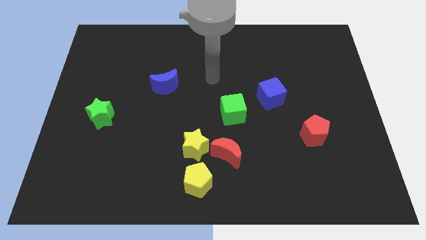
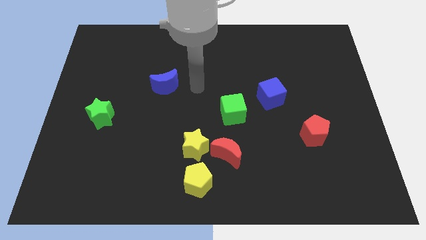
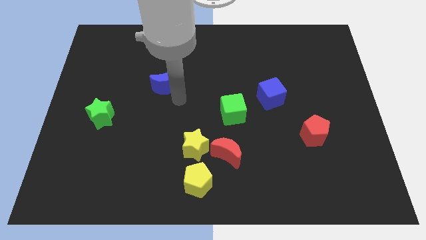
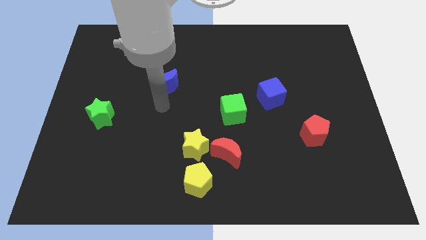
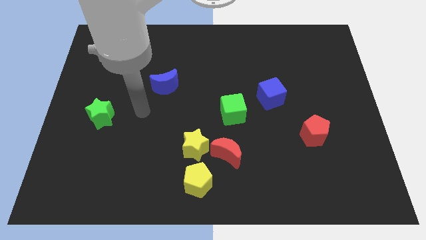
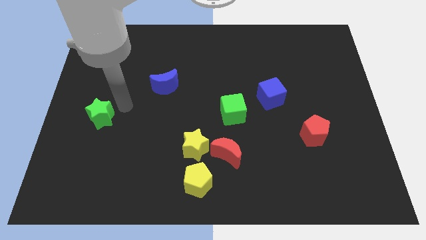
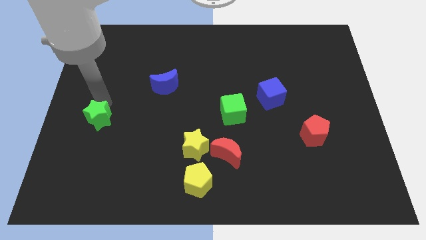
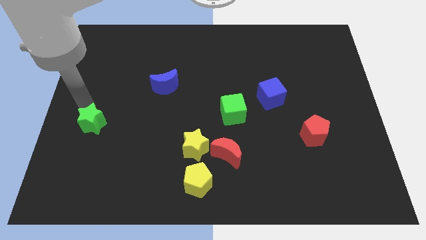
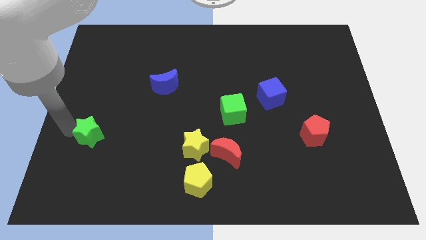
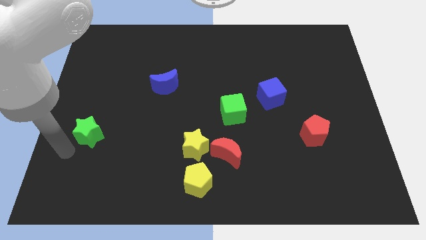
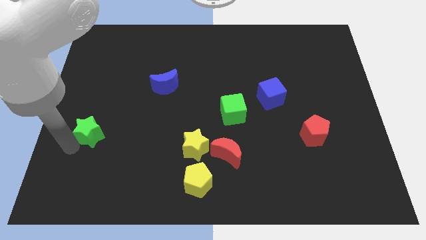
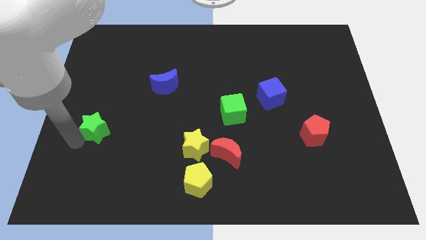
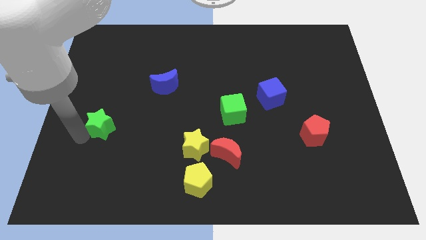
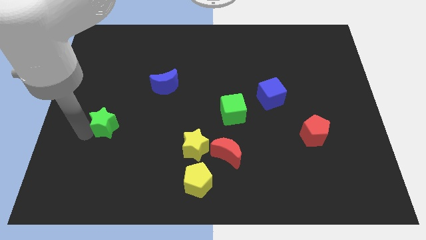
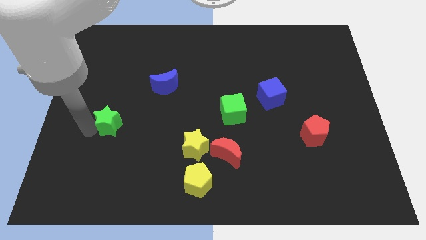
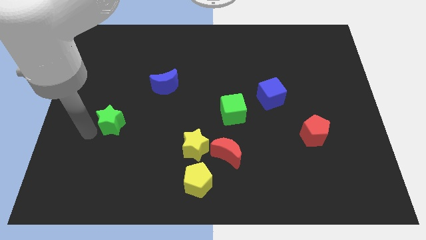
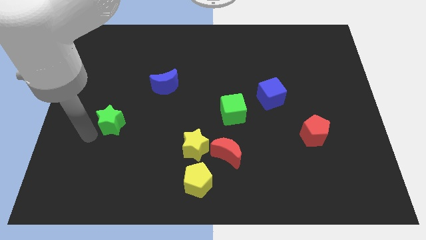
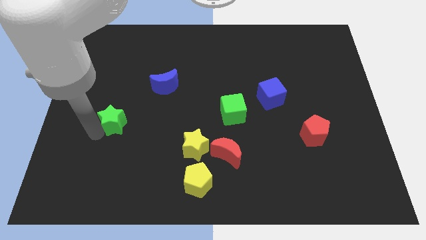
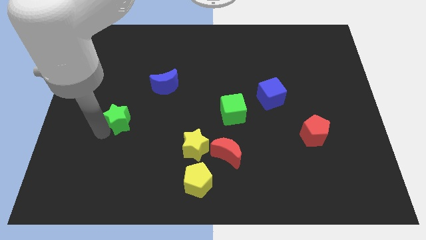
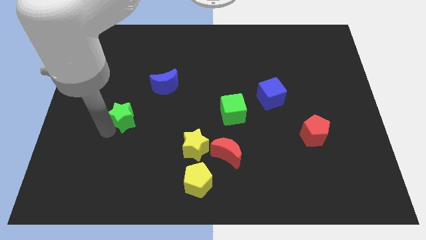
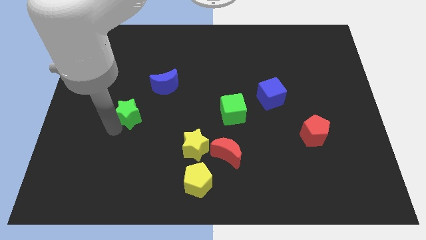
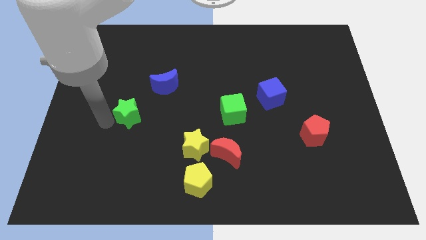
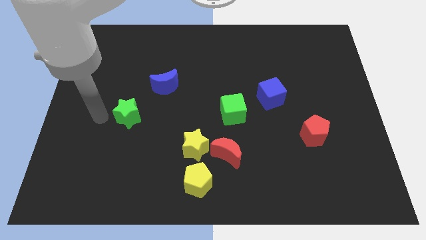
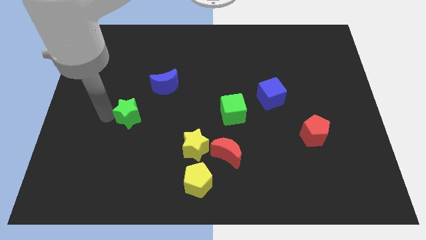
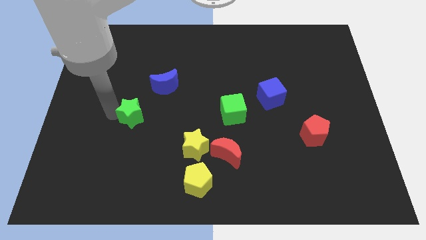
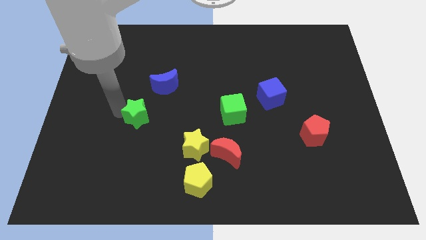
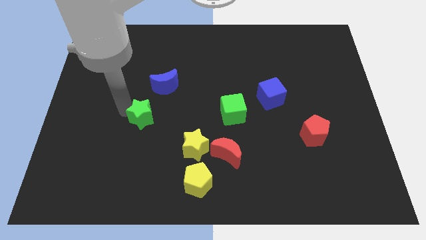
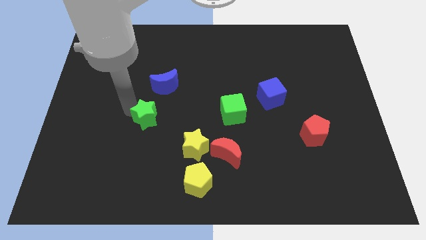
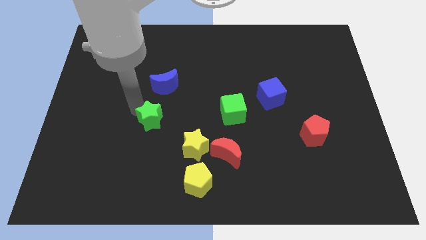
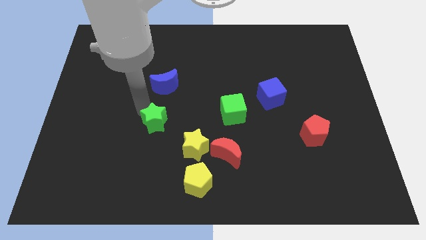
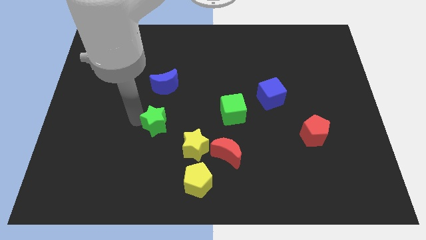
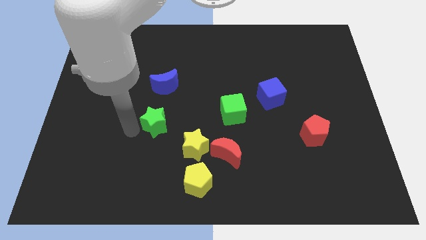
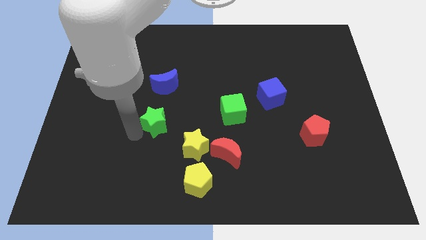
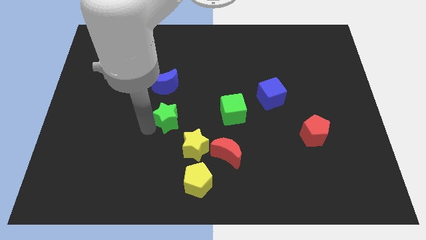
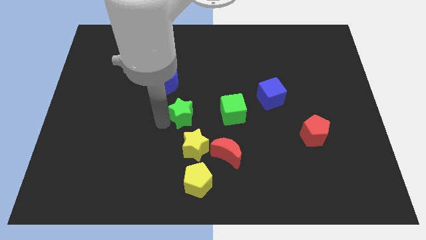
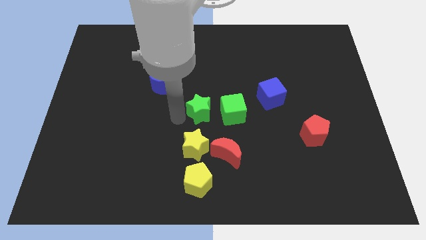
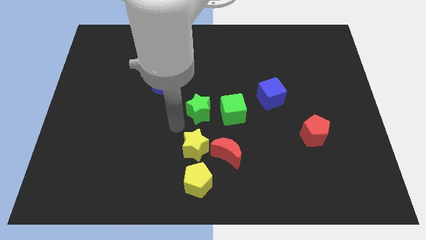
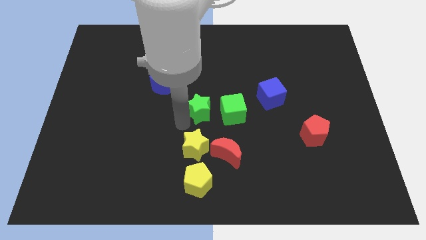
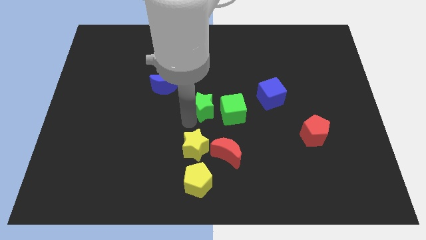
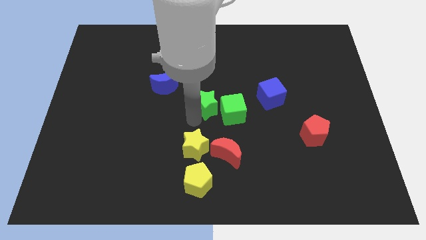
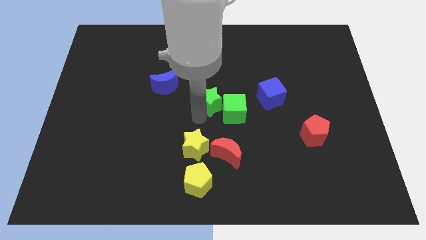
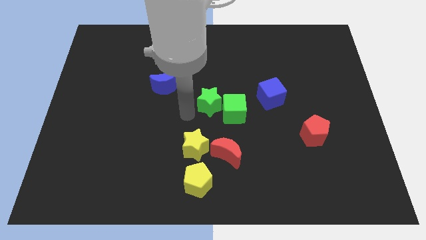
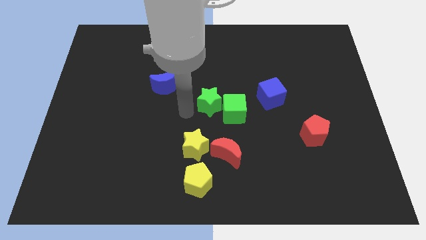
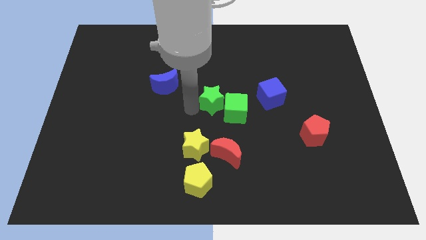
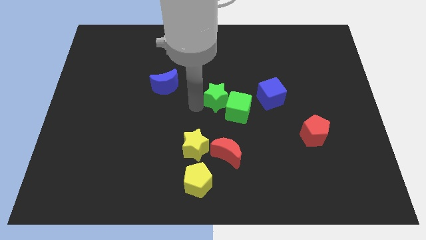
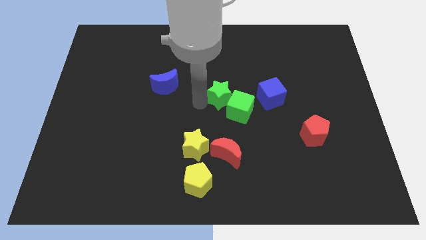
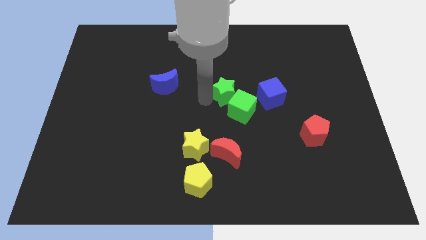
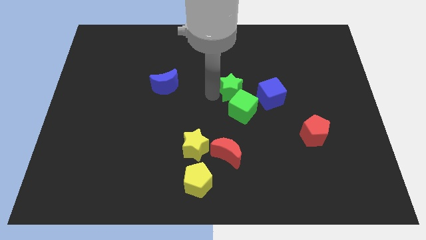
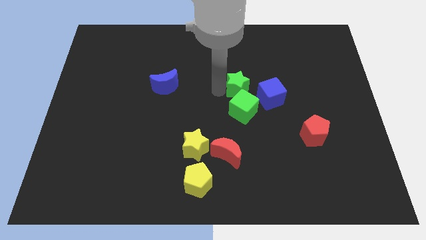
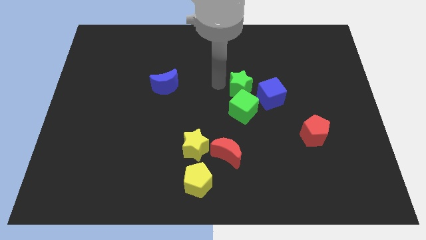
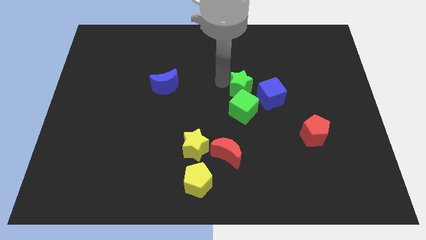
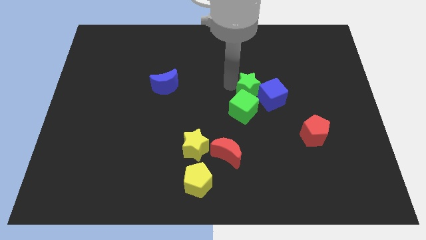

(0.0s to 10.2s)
push the green star towards the blue cube

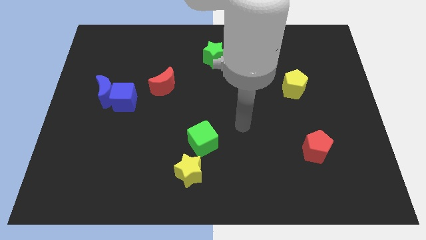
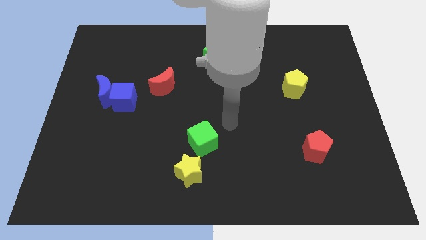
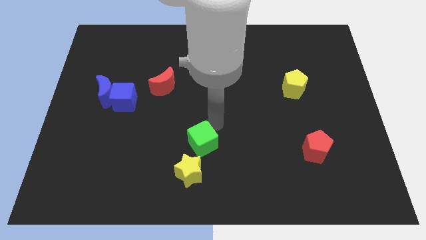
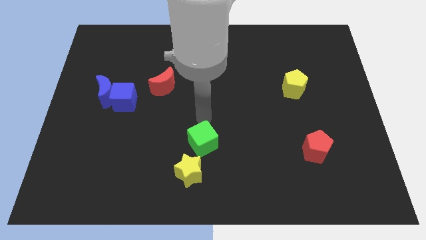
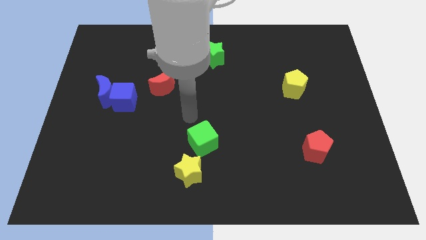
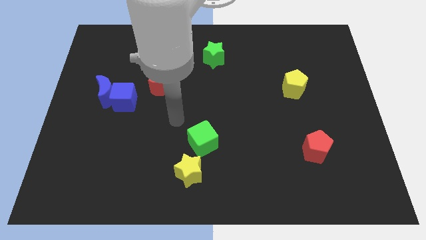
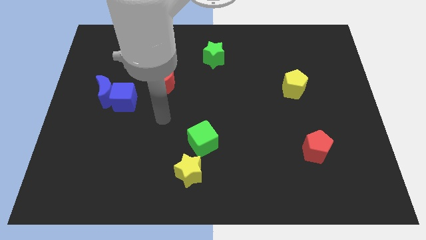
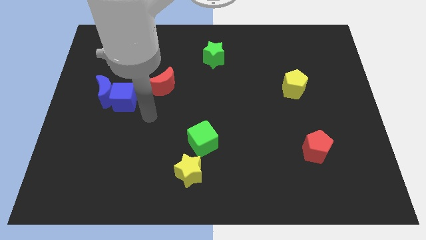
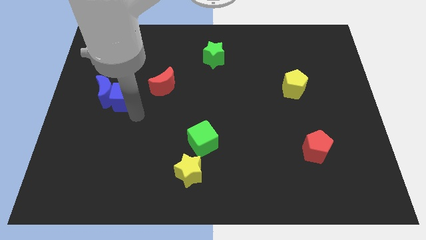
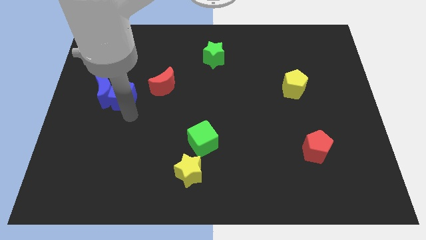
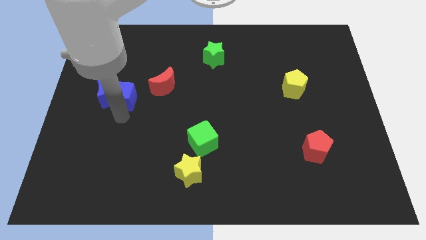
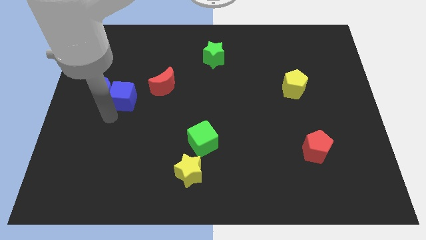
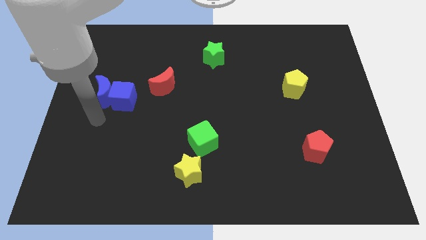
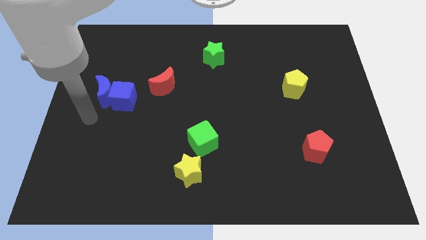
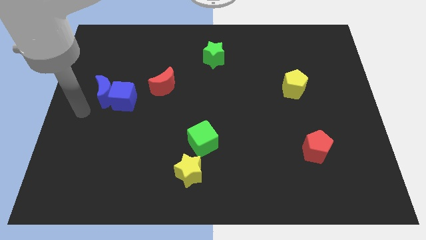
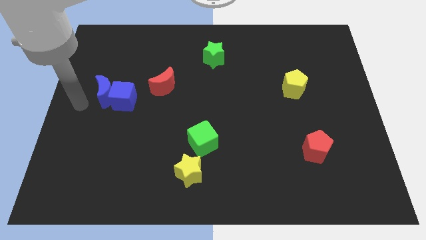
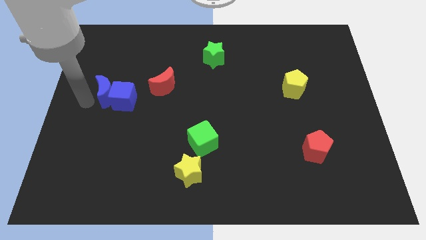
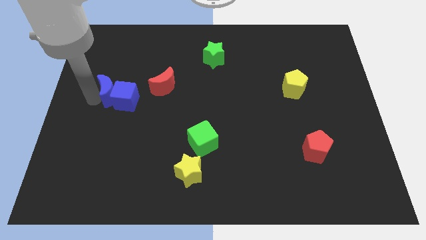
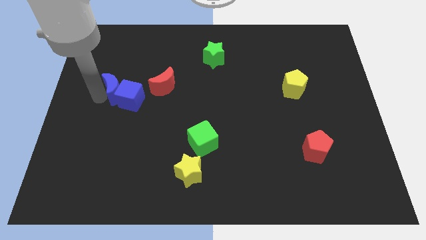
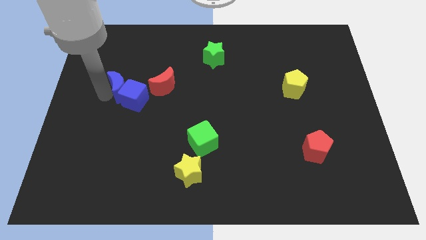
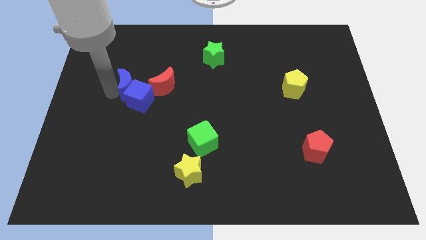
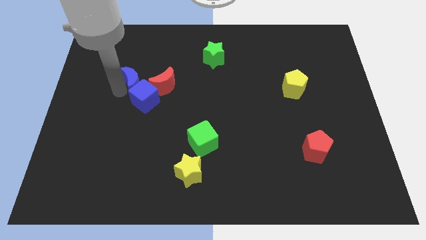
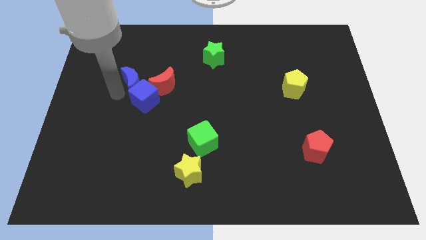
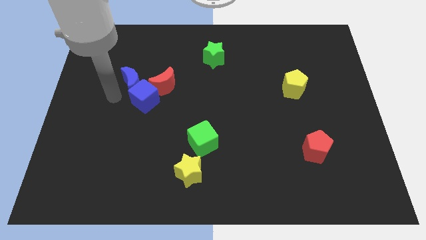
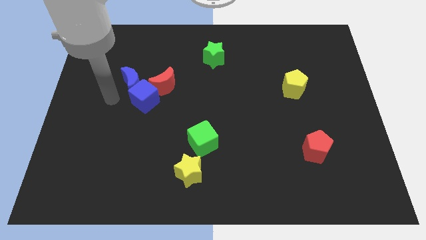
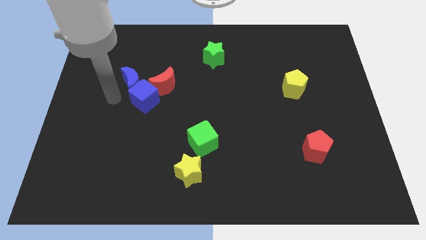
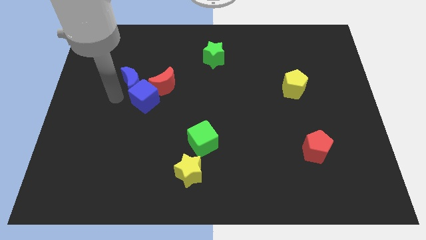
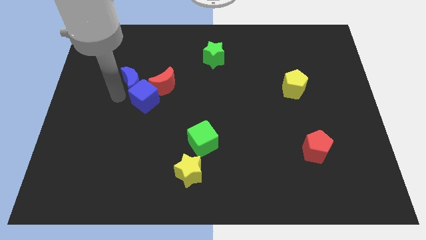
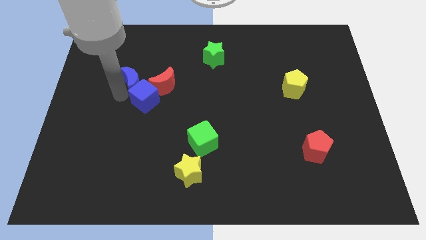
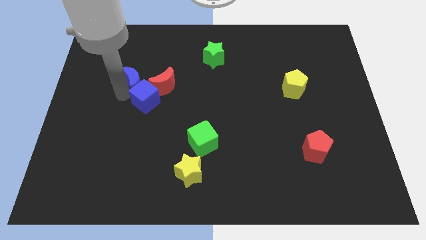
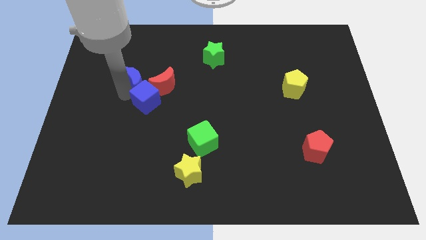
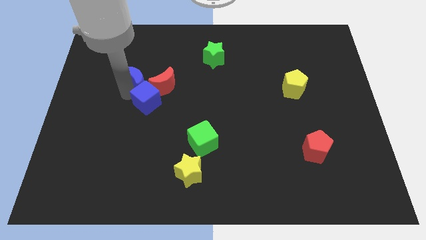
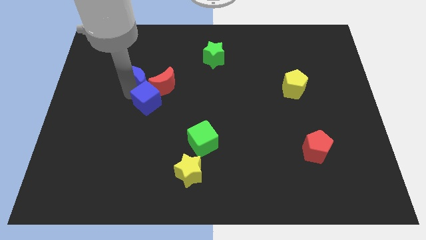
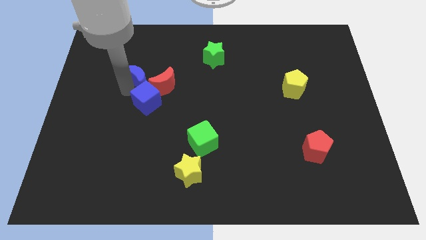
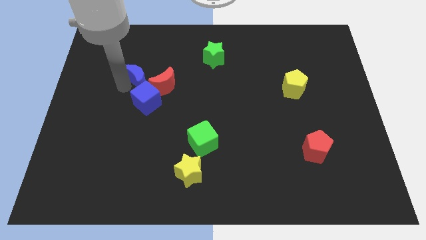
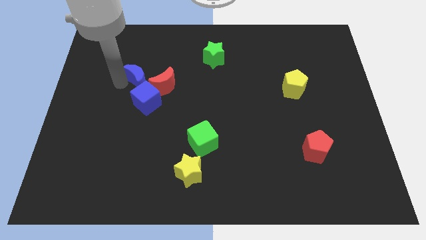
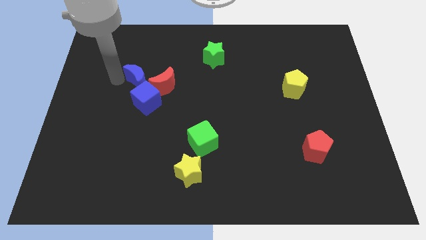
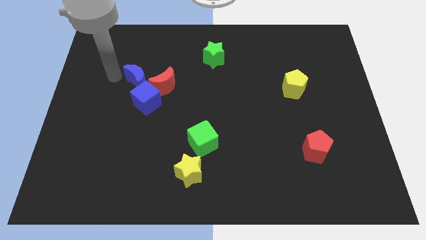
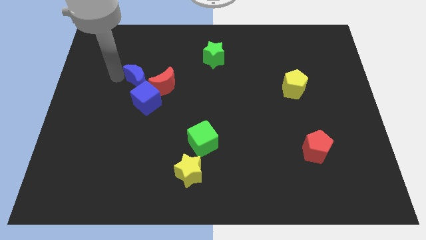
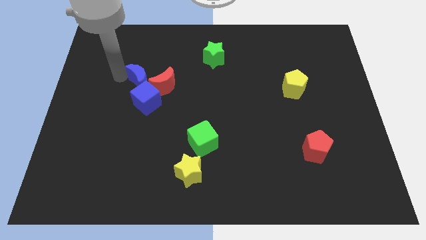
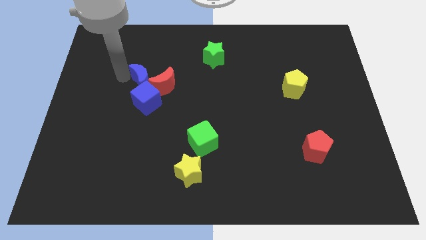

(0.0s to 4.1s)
push the blue moon to the red moon
